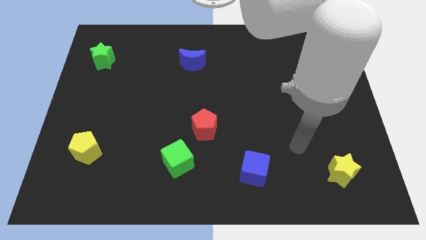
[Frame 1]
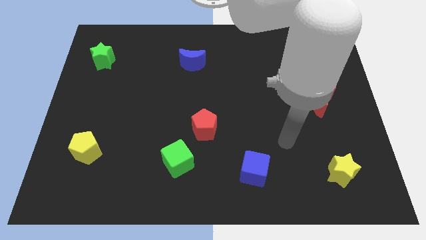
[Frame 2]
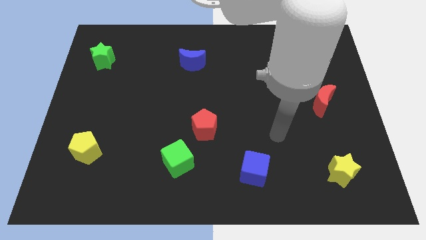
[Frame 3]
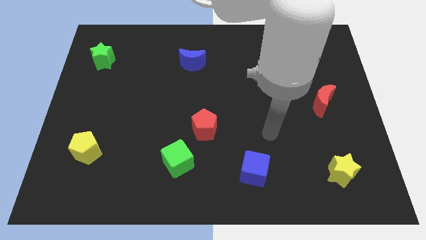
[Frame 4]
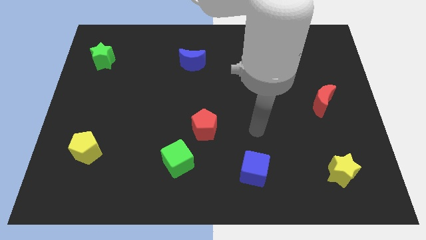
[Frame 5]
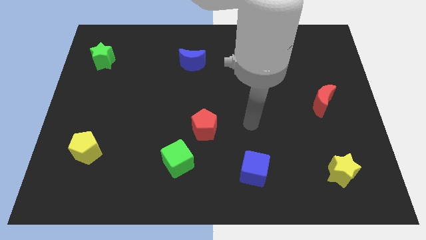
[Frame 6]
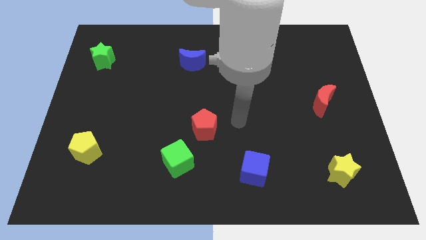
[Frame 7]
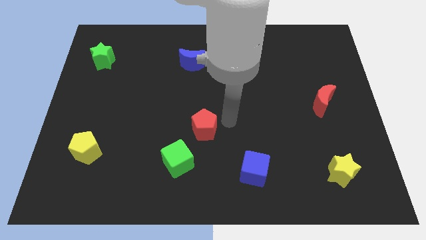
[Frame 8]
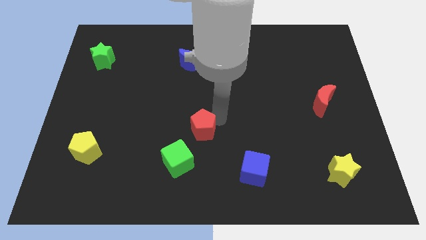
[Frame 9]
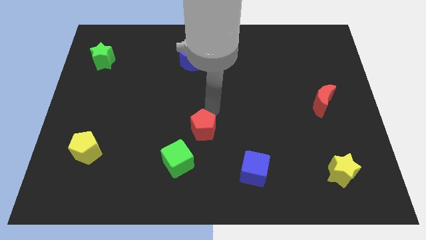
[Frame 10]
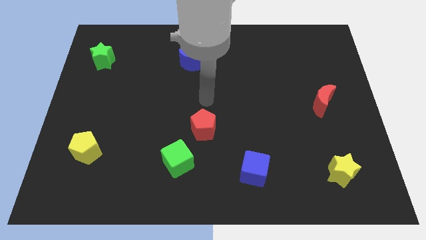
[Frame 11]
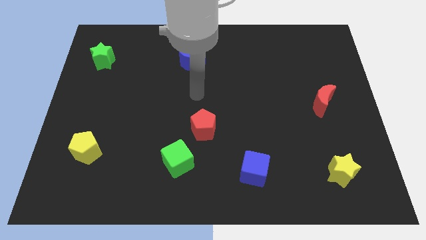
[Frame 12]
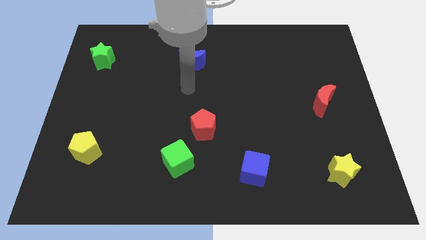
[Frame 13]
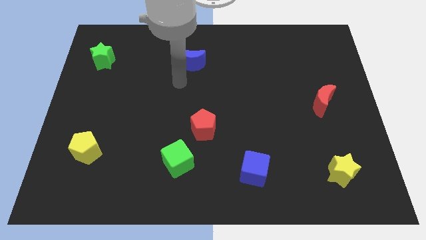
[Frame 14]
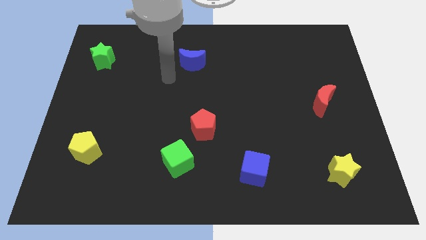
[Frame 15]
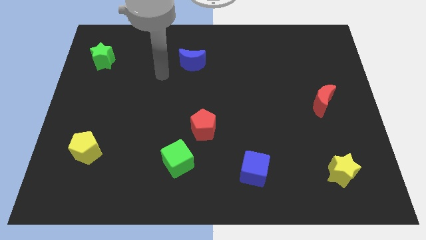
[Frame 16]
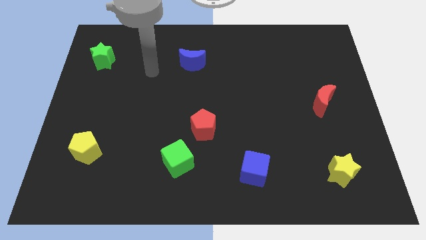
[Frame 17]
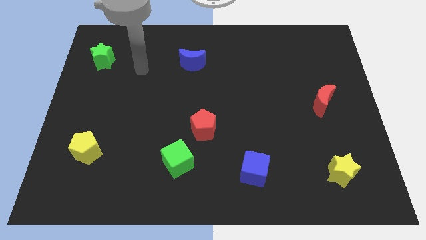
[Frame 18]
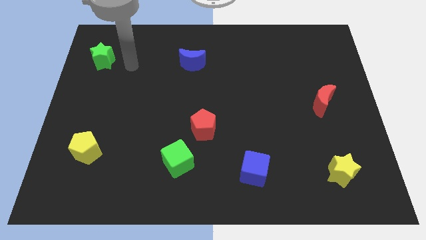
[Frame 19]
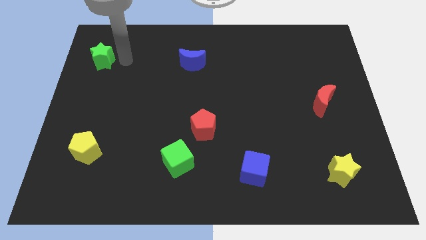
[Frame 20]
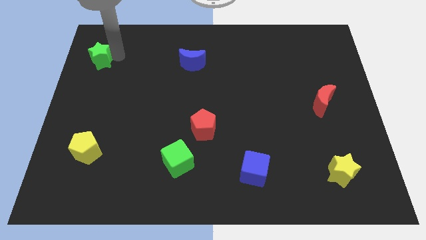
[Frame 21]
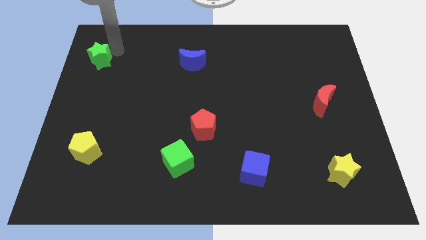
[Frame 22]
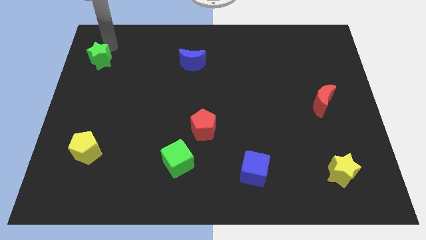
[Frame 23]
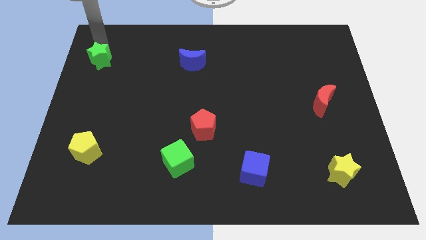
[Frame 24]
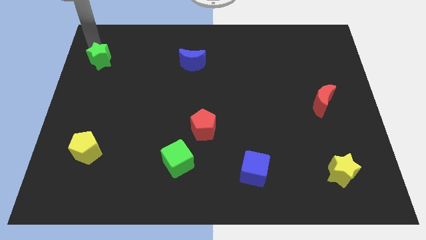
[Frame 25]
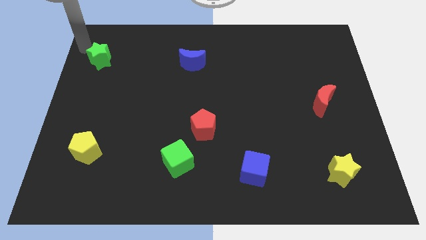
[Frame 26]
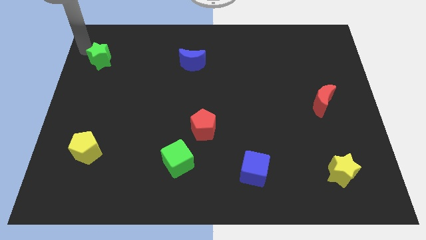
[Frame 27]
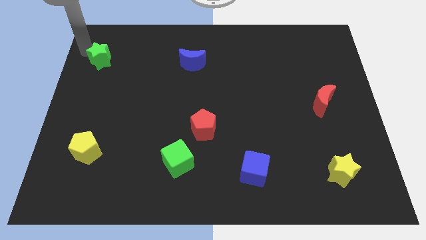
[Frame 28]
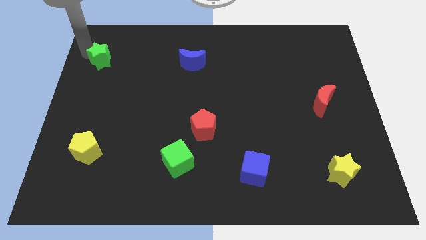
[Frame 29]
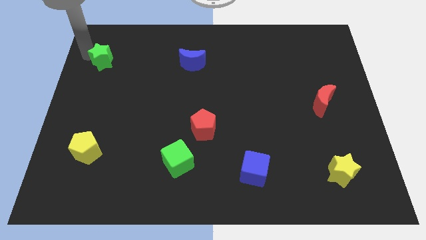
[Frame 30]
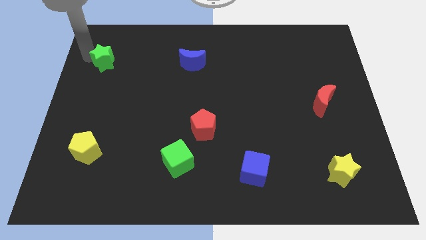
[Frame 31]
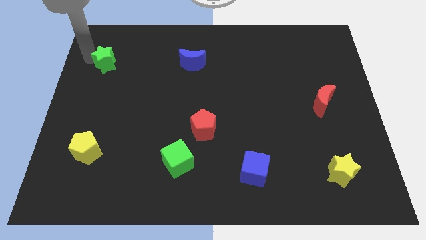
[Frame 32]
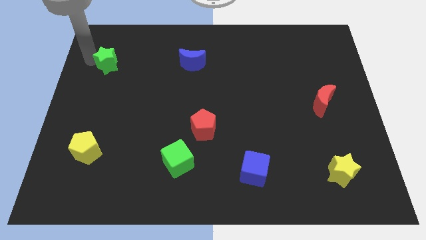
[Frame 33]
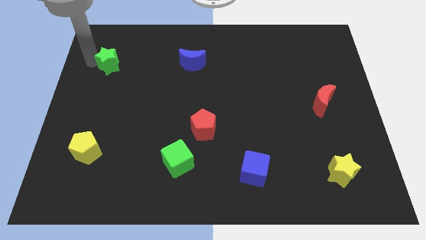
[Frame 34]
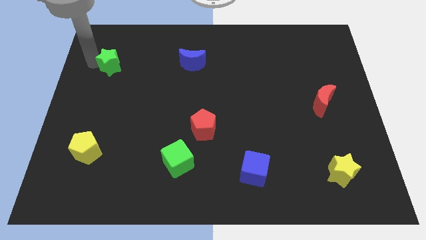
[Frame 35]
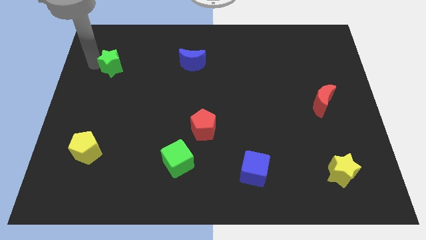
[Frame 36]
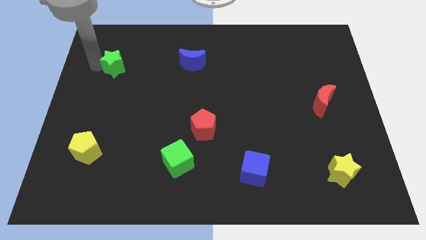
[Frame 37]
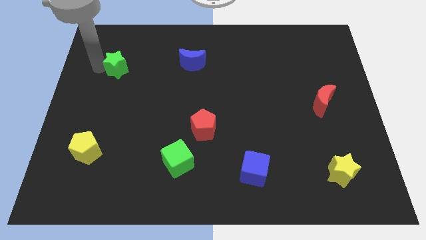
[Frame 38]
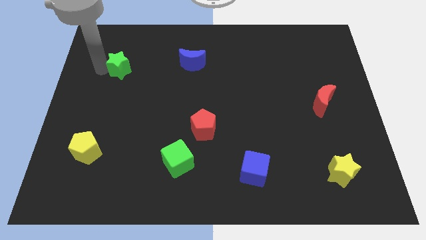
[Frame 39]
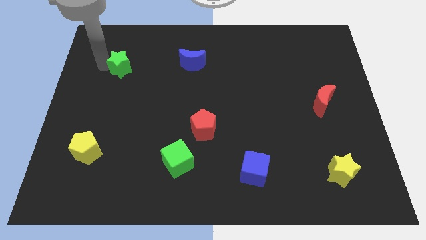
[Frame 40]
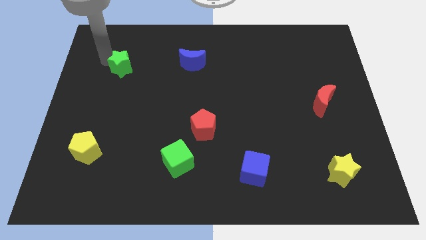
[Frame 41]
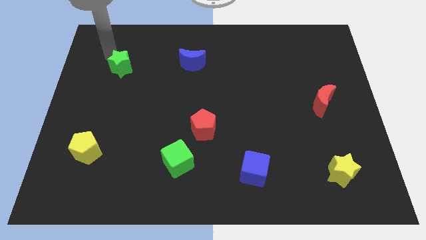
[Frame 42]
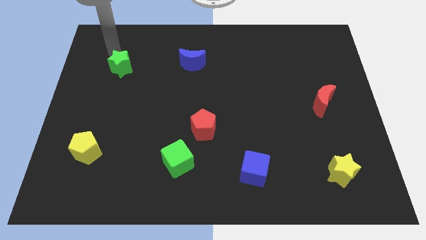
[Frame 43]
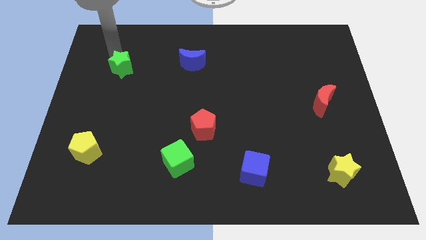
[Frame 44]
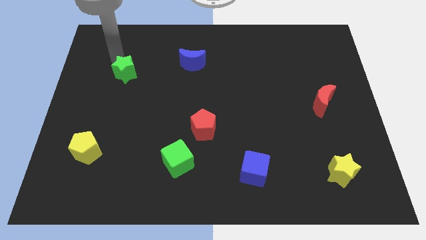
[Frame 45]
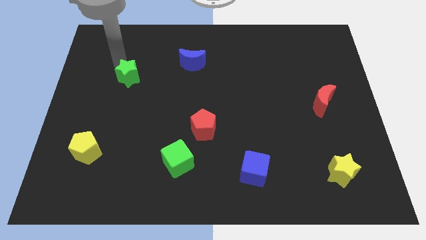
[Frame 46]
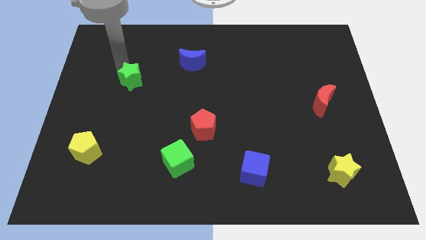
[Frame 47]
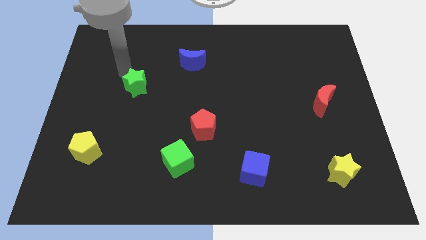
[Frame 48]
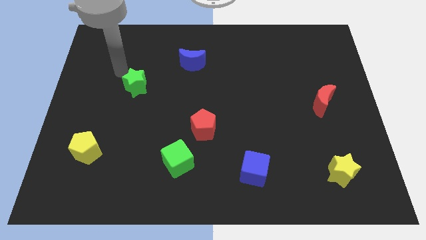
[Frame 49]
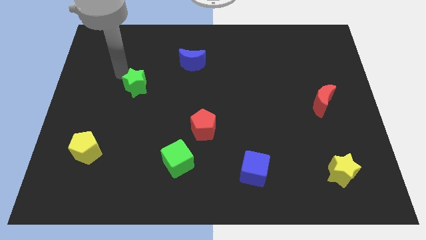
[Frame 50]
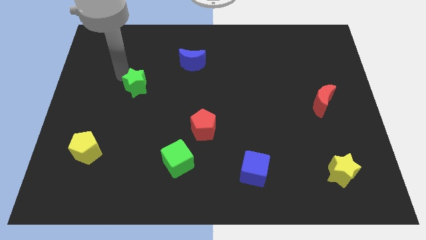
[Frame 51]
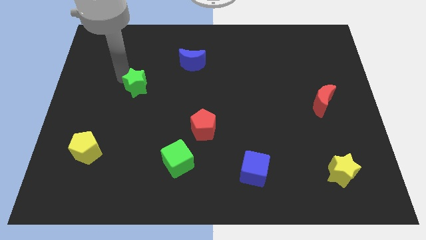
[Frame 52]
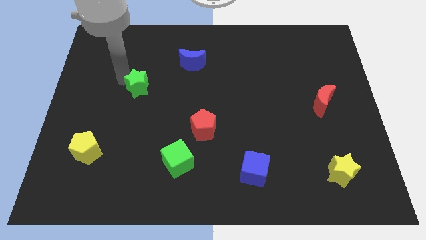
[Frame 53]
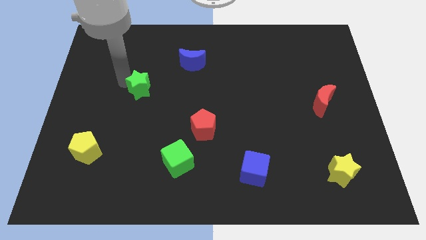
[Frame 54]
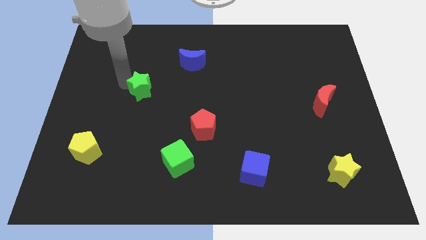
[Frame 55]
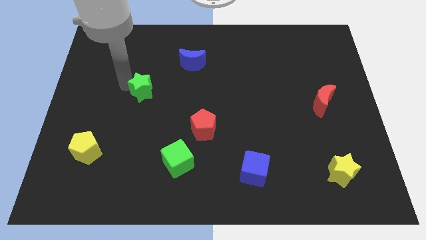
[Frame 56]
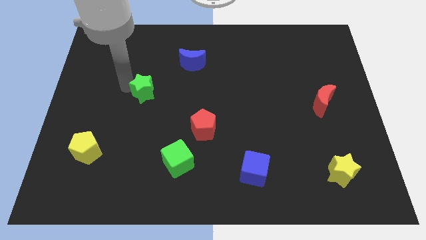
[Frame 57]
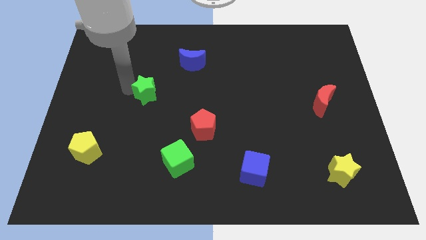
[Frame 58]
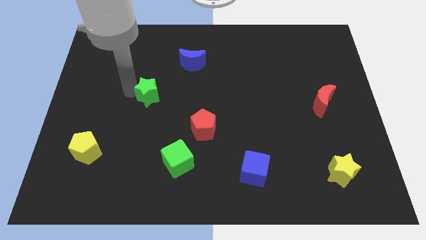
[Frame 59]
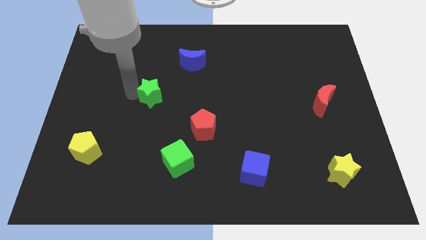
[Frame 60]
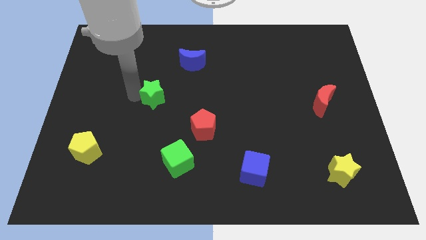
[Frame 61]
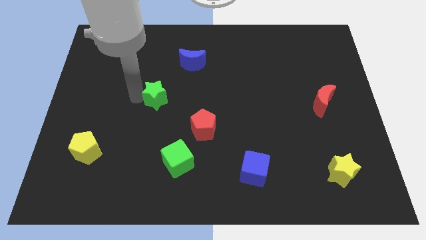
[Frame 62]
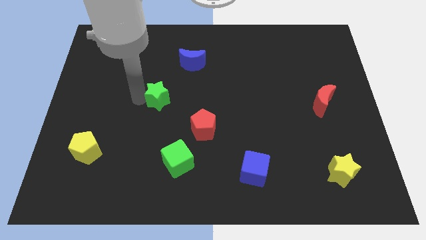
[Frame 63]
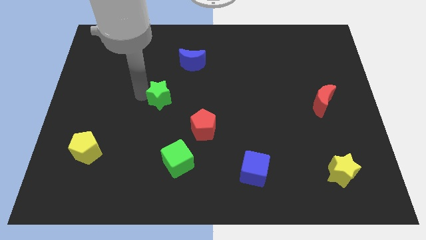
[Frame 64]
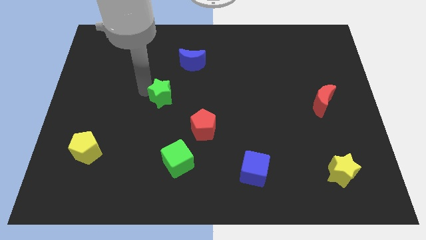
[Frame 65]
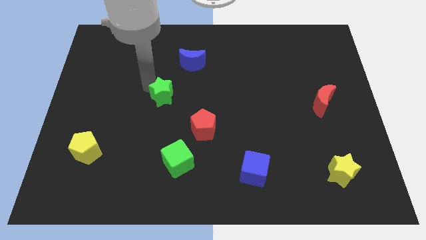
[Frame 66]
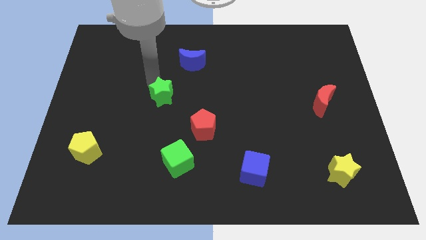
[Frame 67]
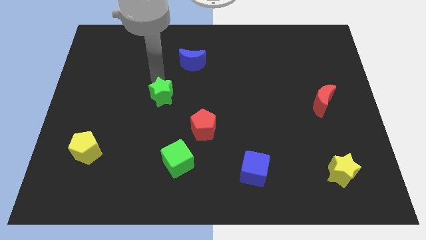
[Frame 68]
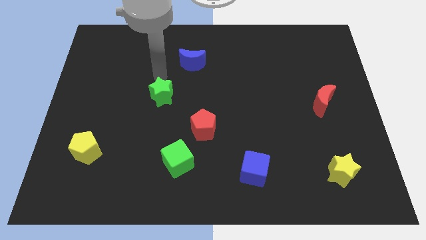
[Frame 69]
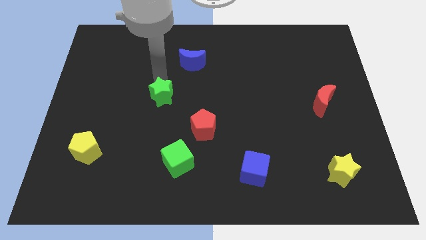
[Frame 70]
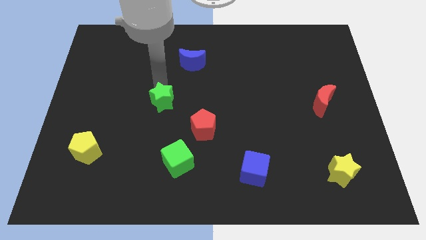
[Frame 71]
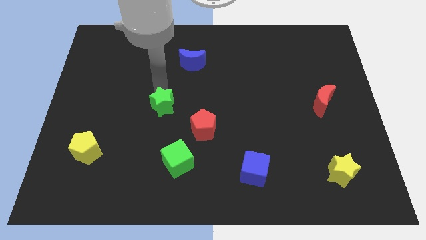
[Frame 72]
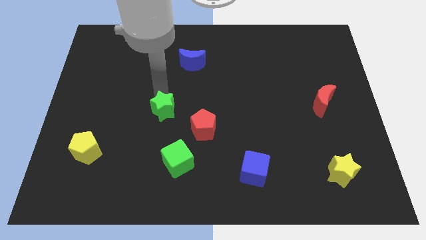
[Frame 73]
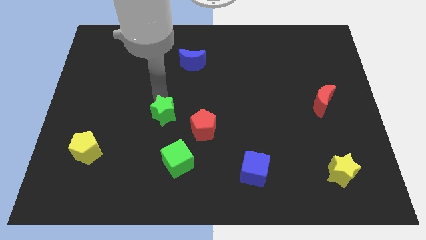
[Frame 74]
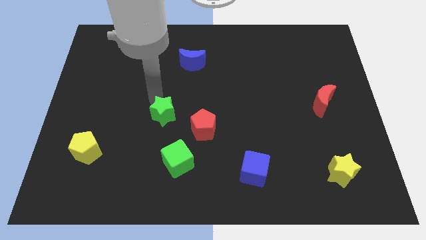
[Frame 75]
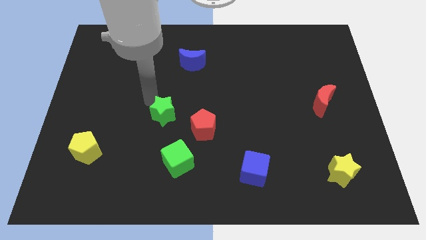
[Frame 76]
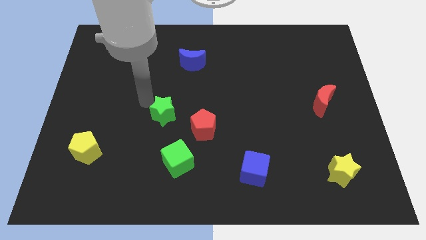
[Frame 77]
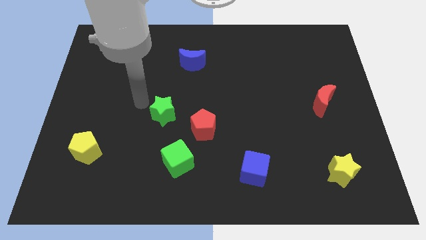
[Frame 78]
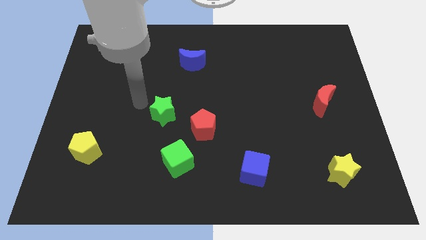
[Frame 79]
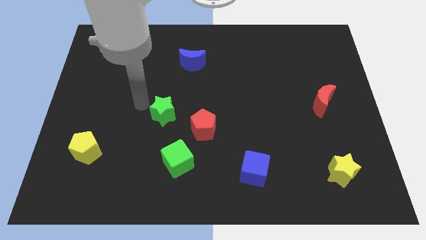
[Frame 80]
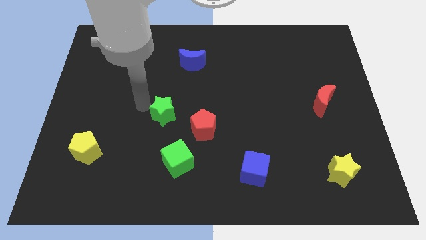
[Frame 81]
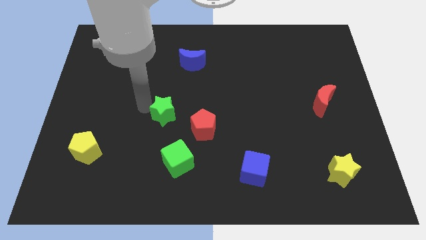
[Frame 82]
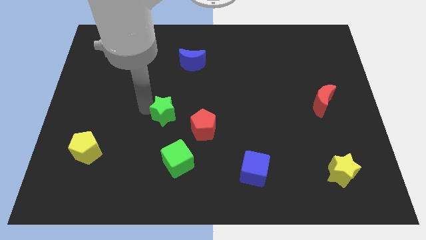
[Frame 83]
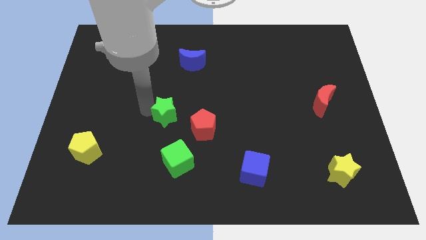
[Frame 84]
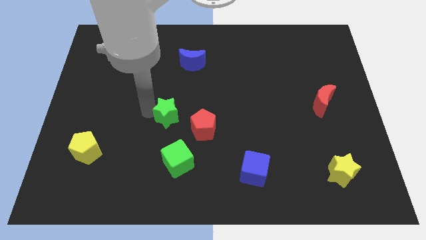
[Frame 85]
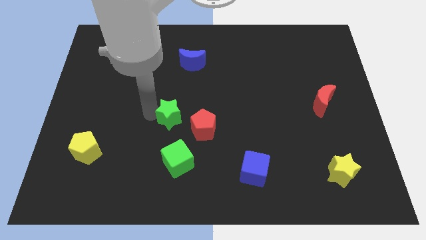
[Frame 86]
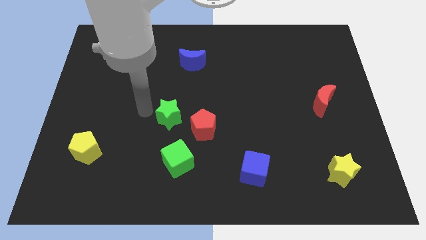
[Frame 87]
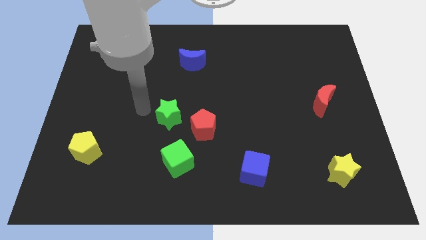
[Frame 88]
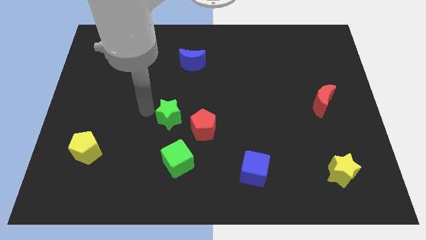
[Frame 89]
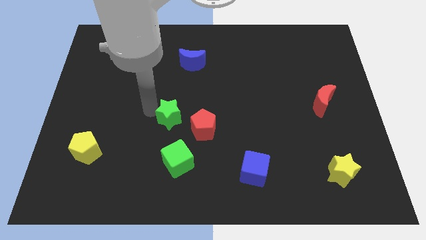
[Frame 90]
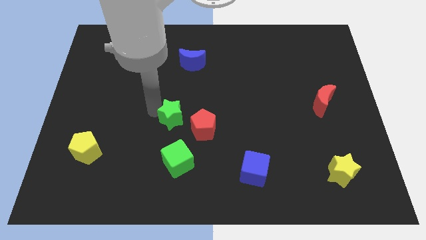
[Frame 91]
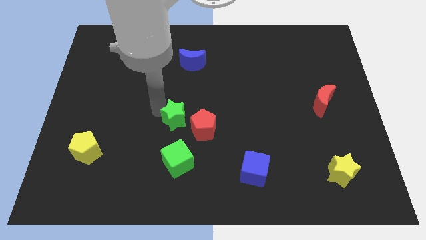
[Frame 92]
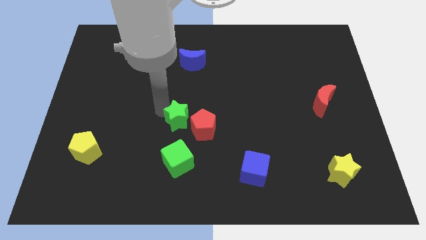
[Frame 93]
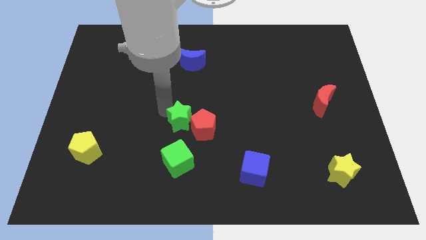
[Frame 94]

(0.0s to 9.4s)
put the green star towards the red pentagon
